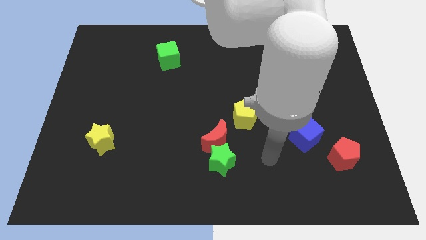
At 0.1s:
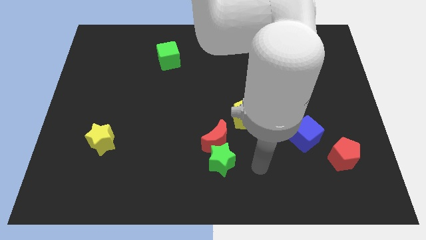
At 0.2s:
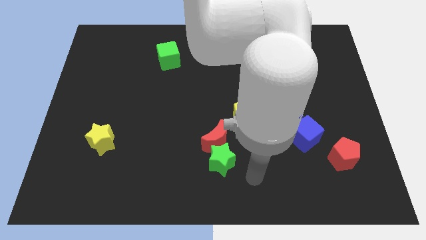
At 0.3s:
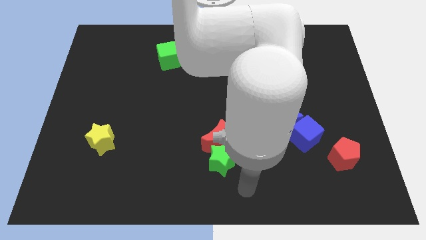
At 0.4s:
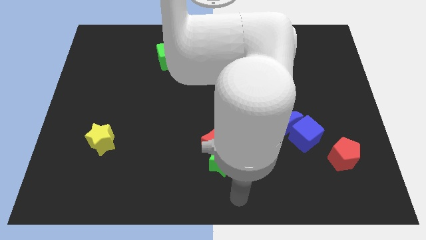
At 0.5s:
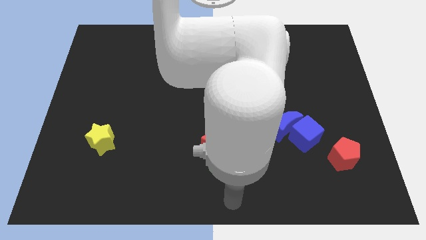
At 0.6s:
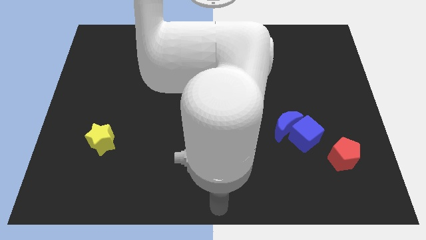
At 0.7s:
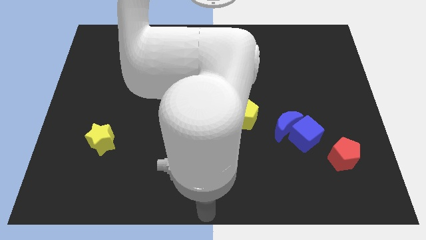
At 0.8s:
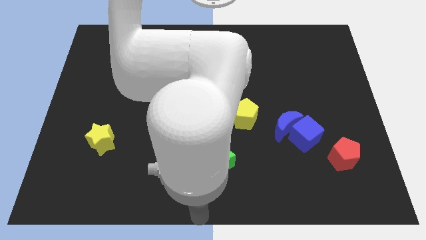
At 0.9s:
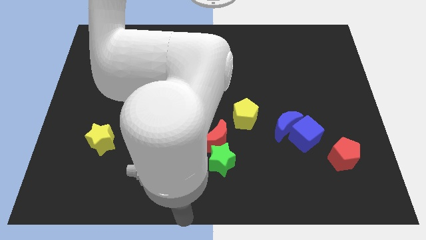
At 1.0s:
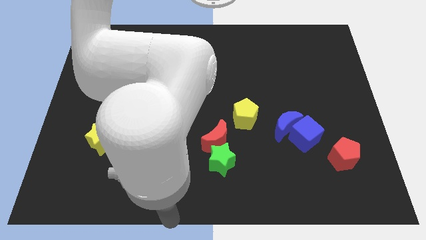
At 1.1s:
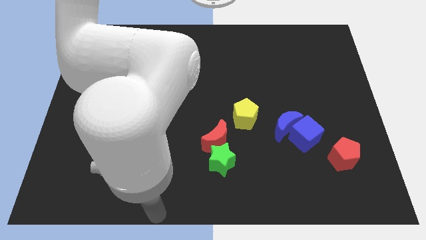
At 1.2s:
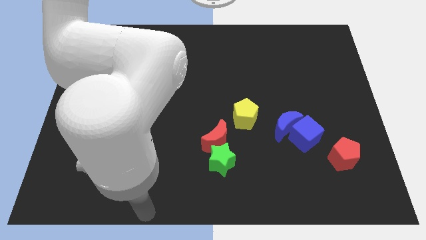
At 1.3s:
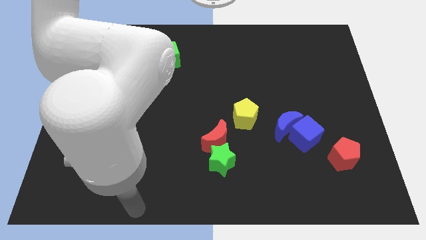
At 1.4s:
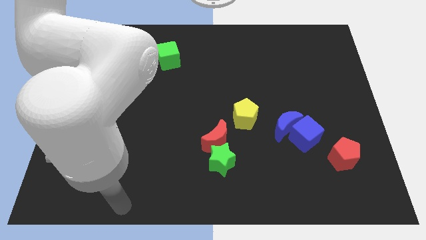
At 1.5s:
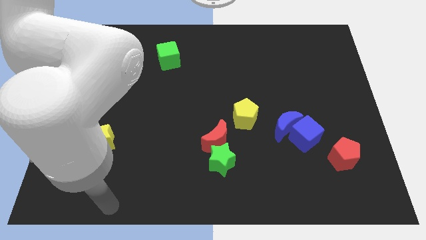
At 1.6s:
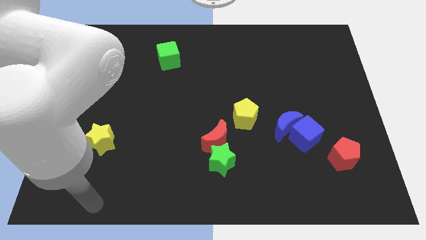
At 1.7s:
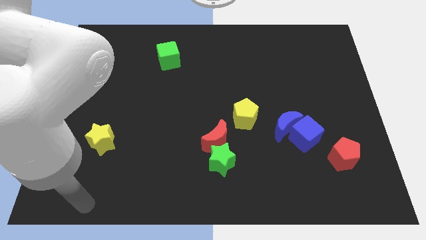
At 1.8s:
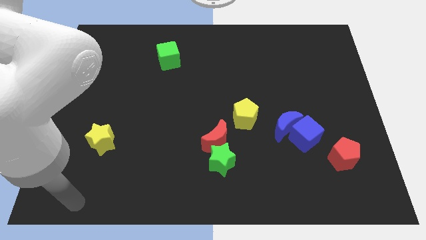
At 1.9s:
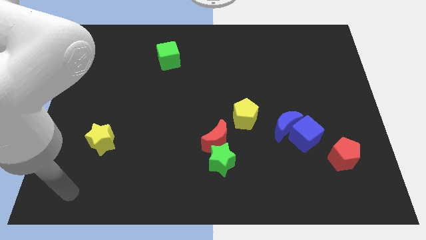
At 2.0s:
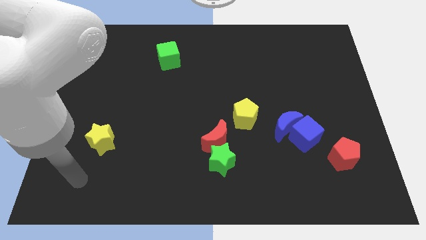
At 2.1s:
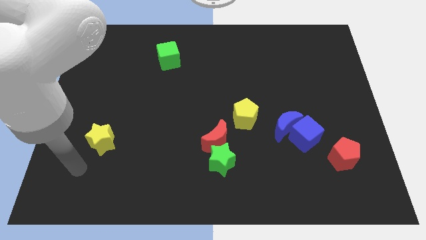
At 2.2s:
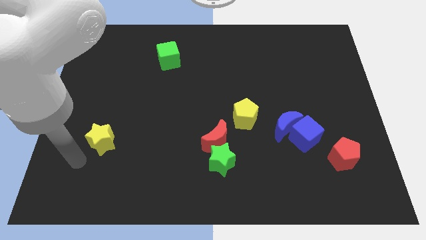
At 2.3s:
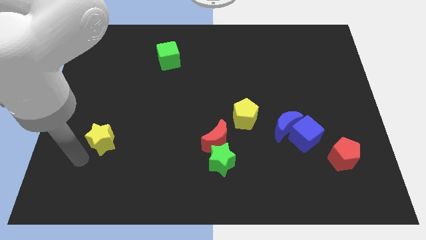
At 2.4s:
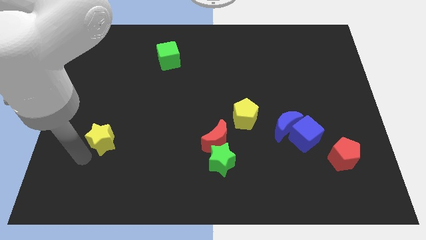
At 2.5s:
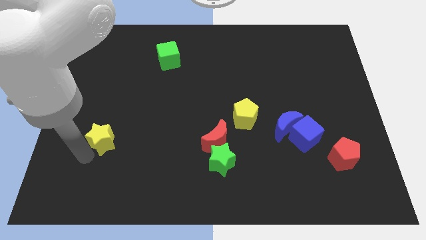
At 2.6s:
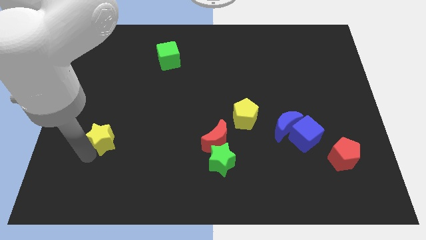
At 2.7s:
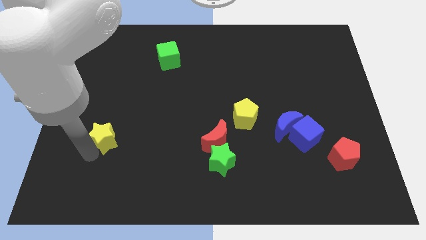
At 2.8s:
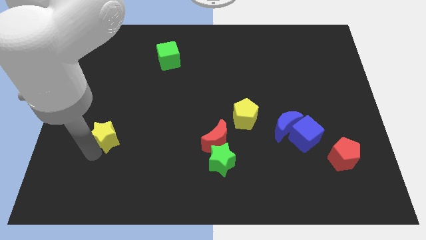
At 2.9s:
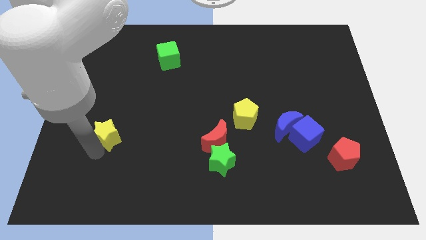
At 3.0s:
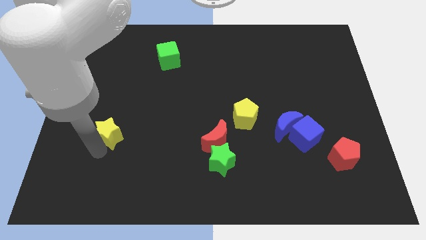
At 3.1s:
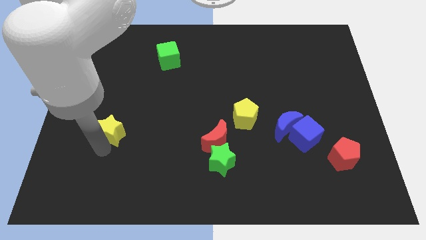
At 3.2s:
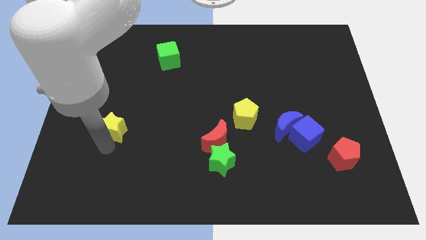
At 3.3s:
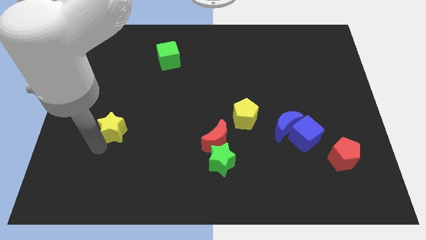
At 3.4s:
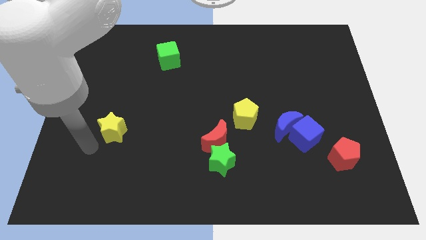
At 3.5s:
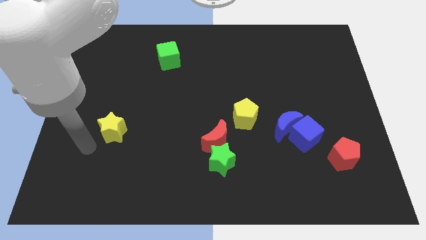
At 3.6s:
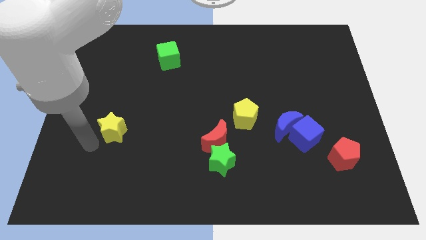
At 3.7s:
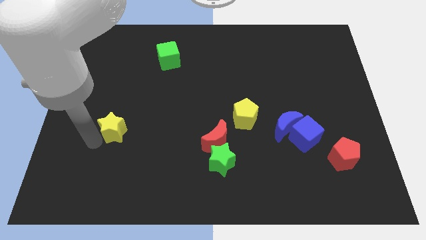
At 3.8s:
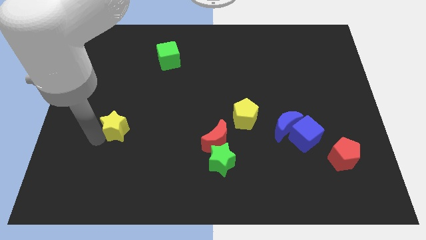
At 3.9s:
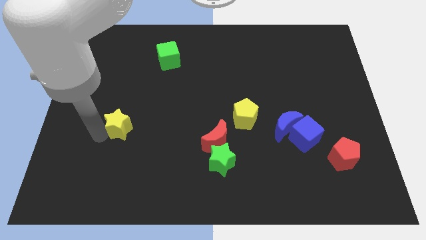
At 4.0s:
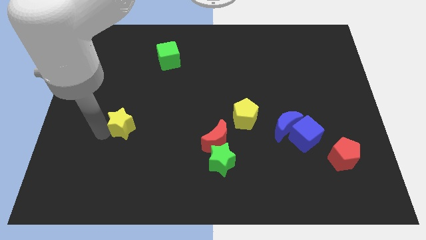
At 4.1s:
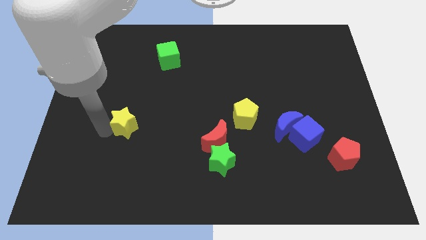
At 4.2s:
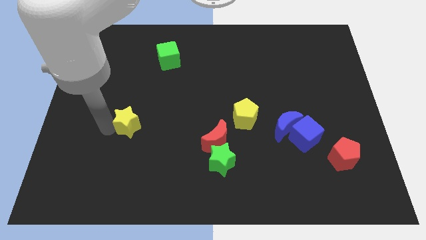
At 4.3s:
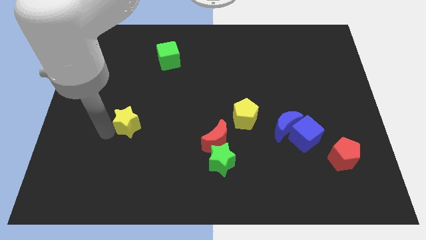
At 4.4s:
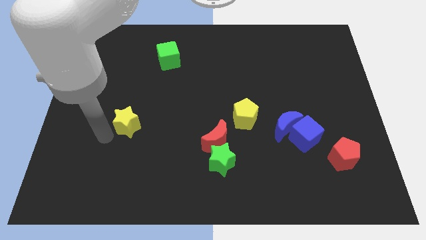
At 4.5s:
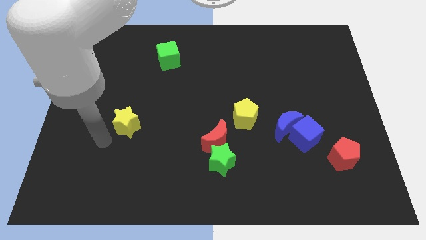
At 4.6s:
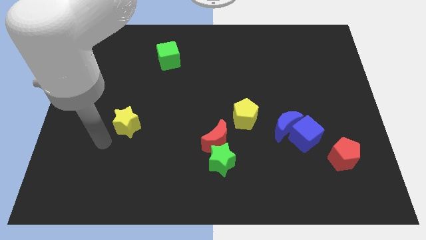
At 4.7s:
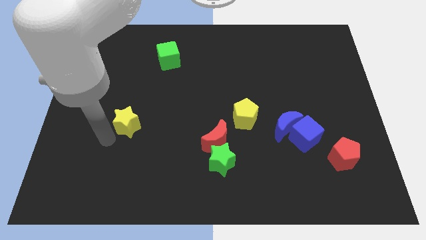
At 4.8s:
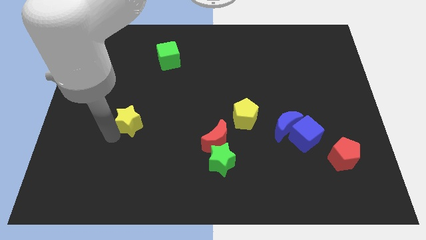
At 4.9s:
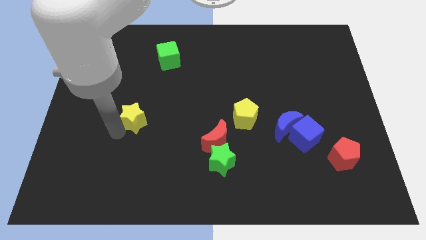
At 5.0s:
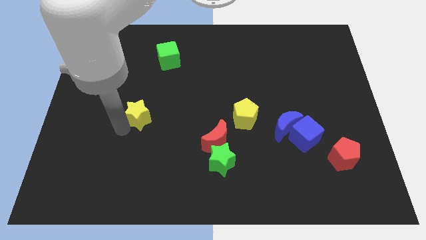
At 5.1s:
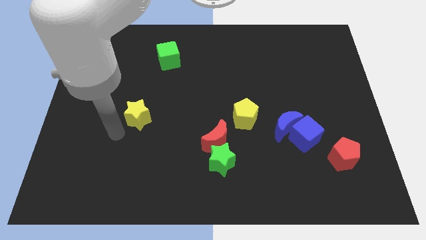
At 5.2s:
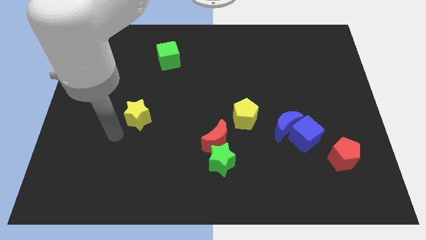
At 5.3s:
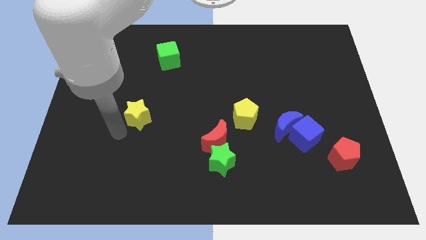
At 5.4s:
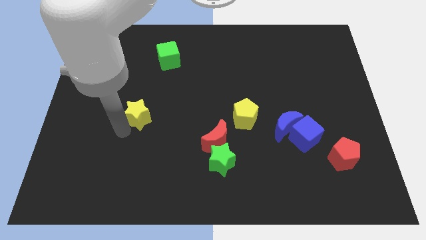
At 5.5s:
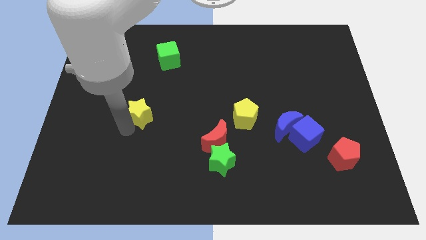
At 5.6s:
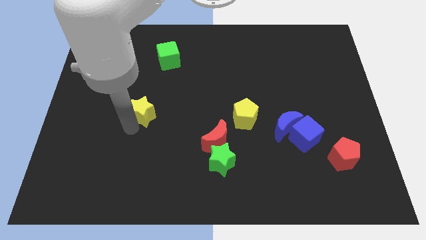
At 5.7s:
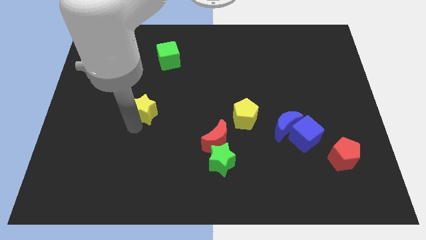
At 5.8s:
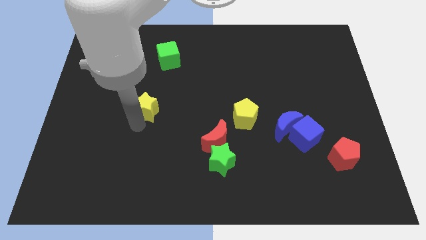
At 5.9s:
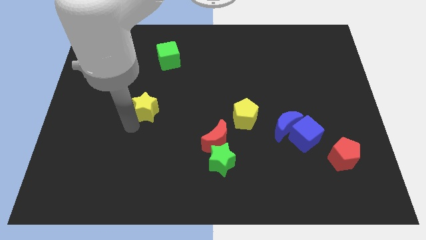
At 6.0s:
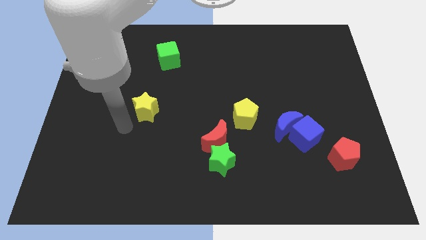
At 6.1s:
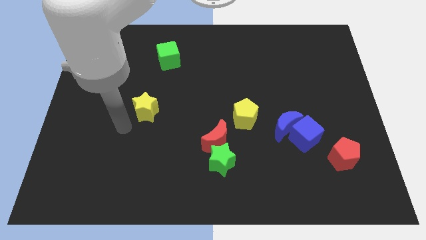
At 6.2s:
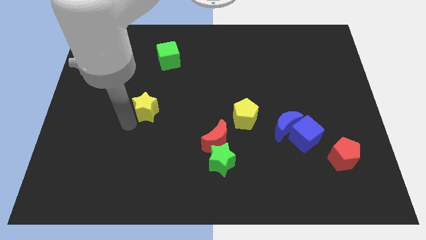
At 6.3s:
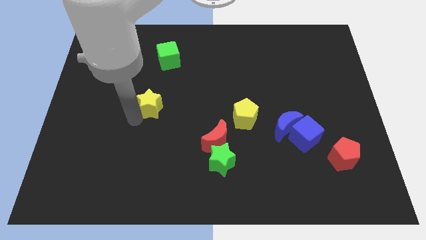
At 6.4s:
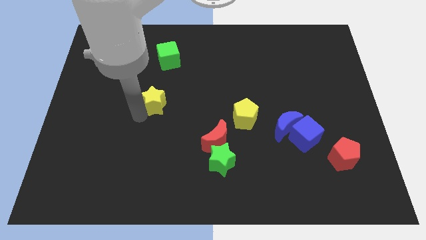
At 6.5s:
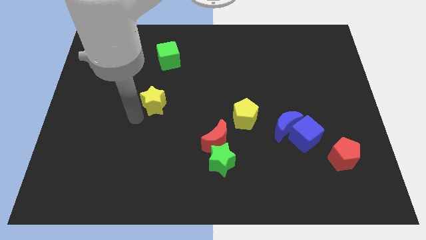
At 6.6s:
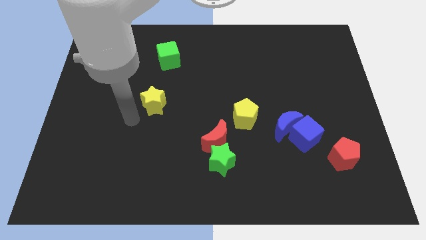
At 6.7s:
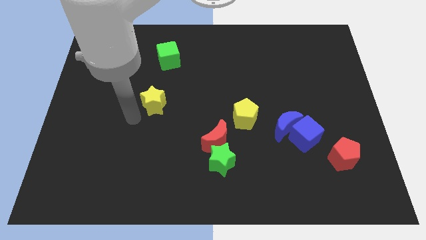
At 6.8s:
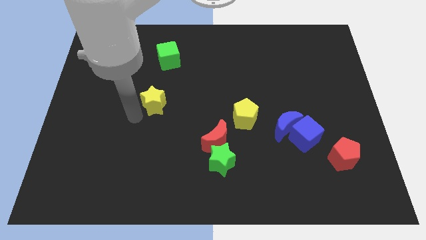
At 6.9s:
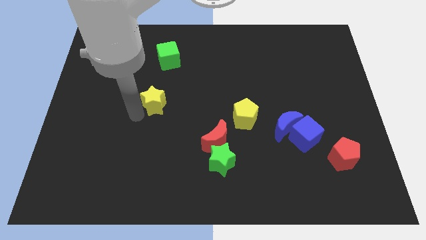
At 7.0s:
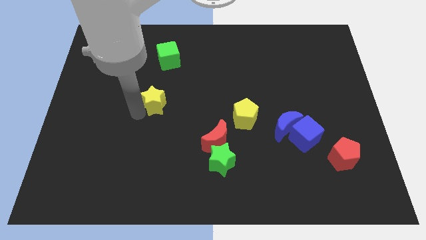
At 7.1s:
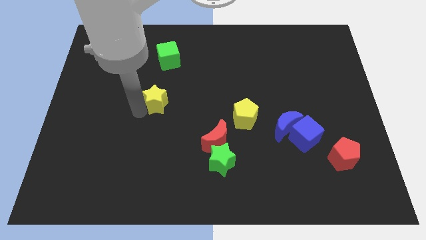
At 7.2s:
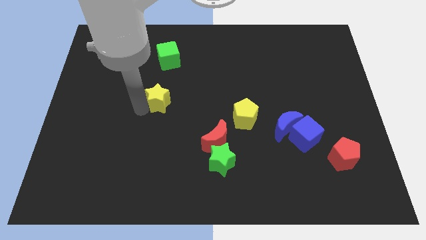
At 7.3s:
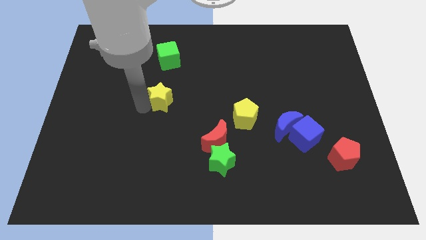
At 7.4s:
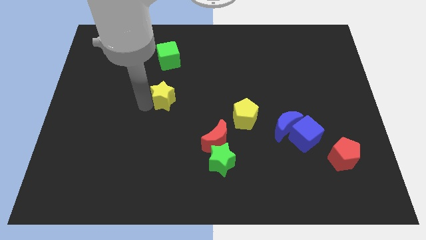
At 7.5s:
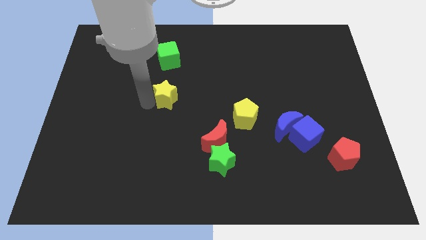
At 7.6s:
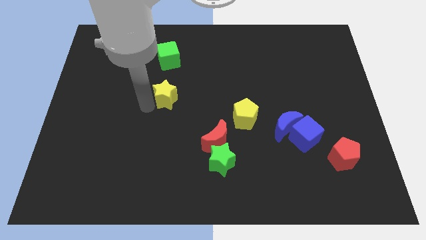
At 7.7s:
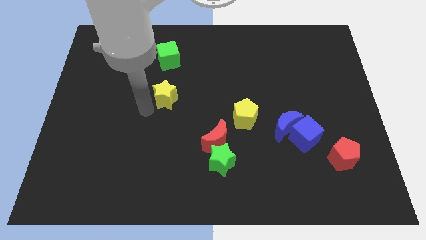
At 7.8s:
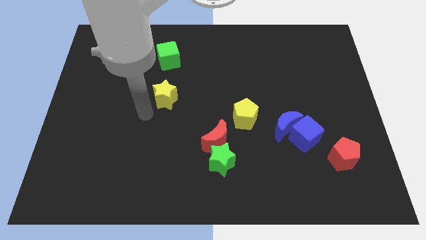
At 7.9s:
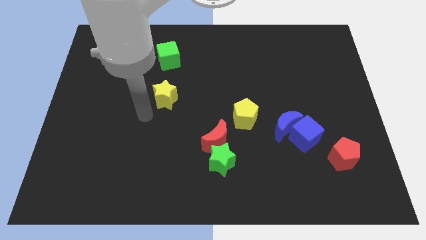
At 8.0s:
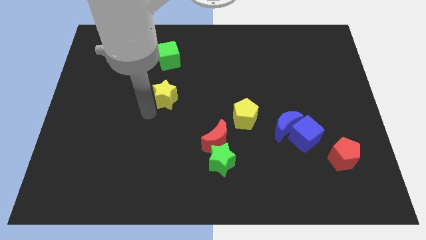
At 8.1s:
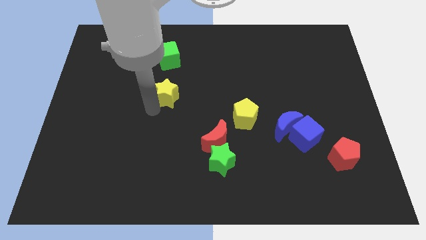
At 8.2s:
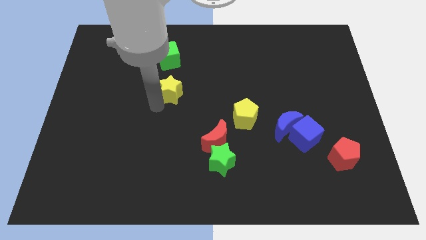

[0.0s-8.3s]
move the yellow star upwards and right diagonally
